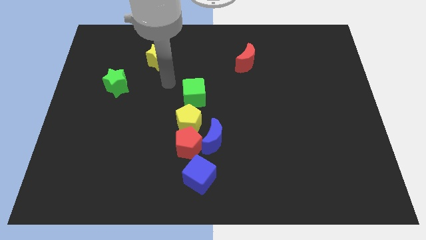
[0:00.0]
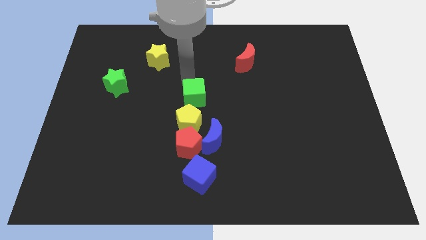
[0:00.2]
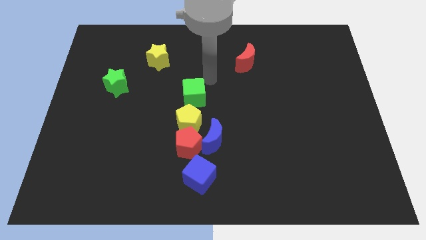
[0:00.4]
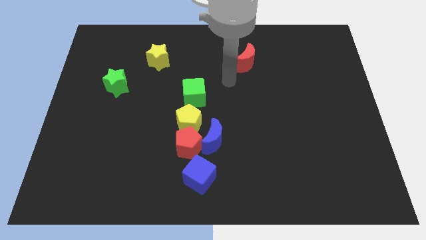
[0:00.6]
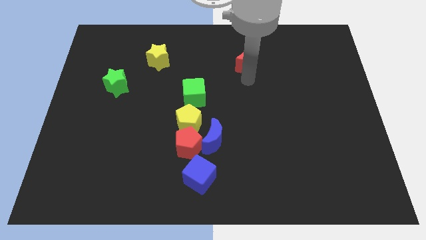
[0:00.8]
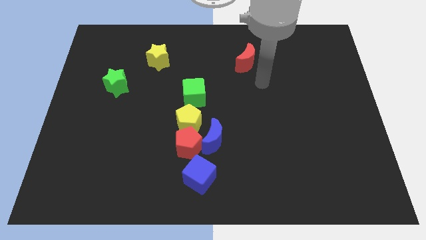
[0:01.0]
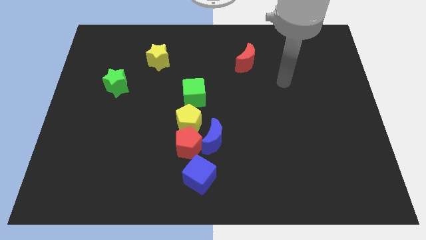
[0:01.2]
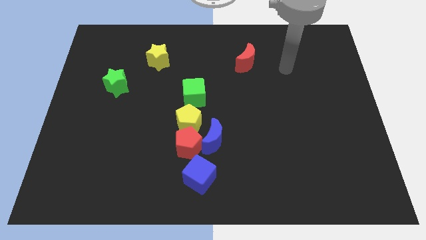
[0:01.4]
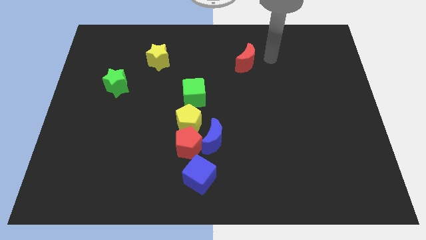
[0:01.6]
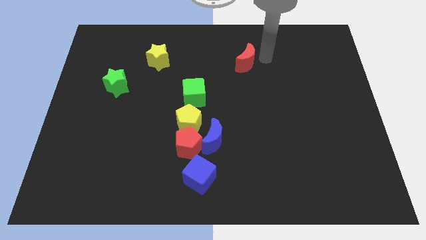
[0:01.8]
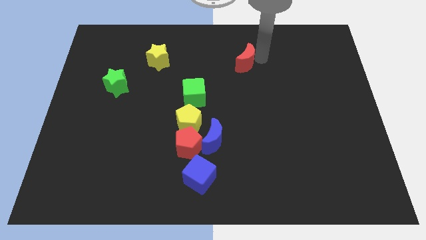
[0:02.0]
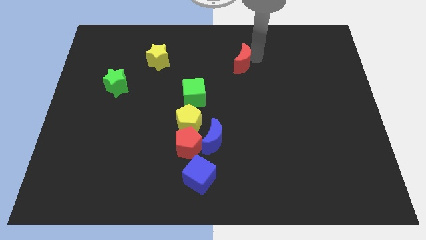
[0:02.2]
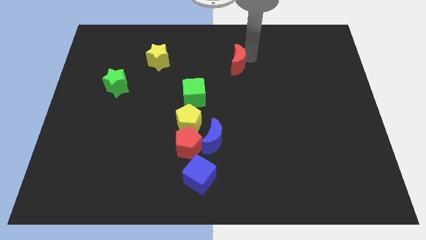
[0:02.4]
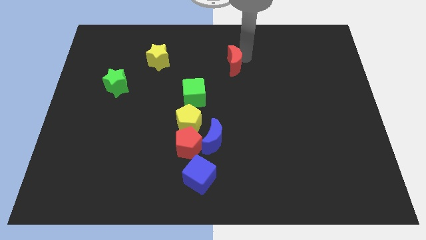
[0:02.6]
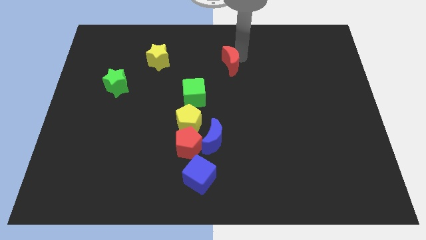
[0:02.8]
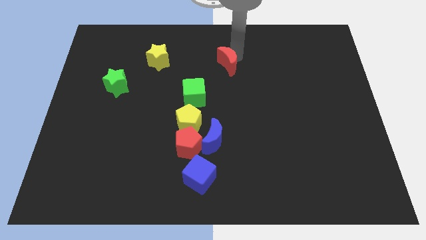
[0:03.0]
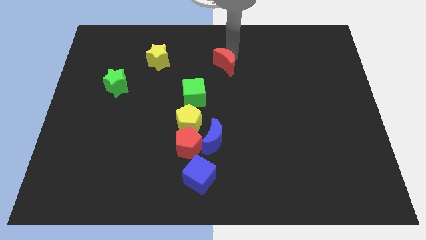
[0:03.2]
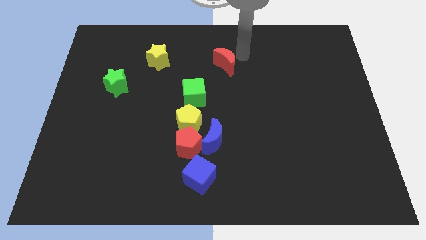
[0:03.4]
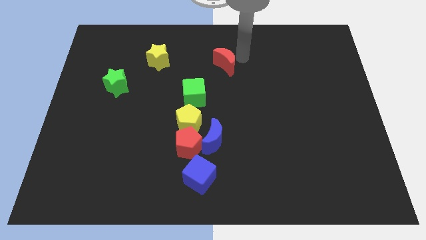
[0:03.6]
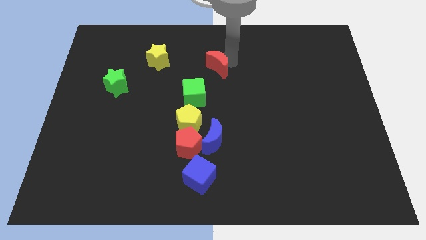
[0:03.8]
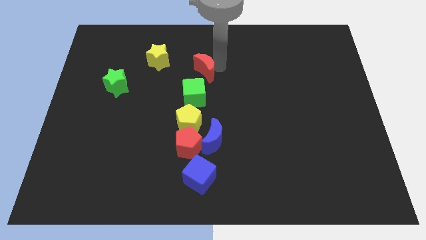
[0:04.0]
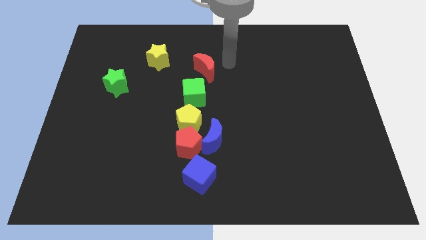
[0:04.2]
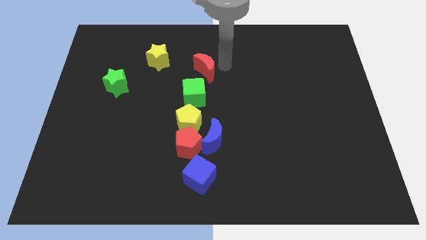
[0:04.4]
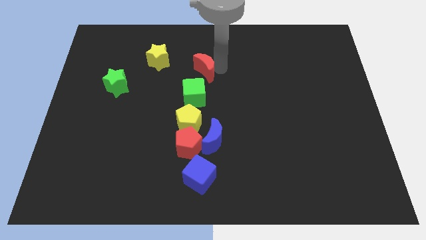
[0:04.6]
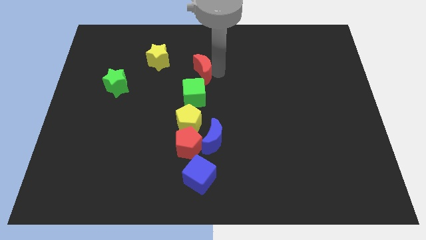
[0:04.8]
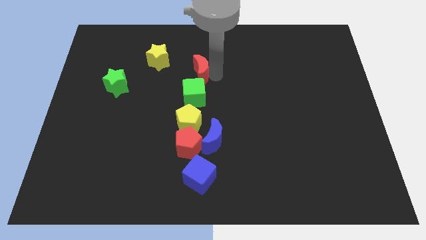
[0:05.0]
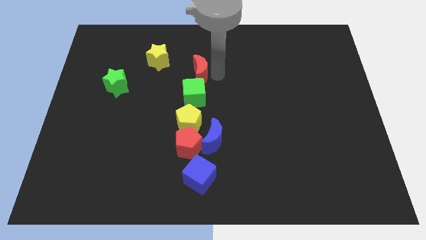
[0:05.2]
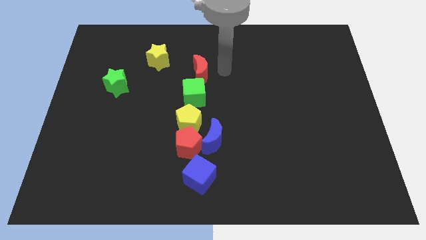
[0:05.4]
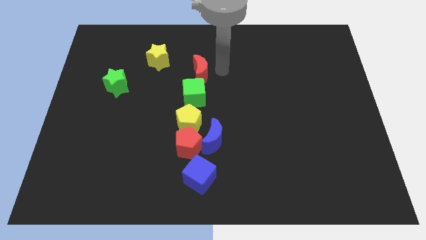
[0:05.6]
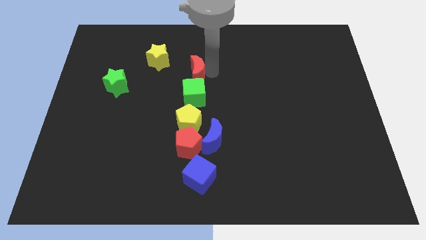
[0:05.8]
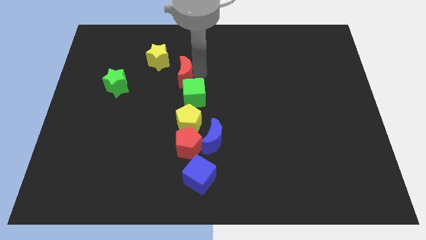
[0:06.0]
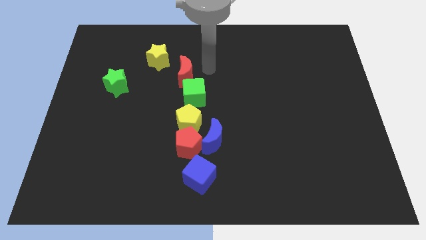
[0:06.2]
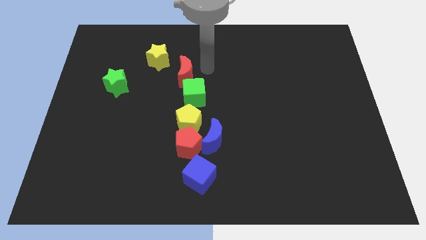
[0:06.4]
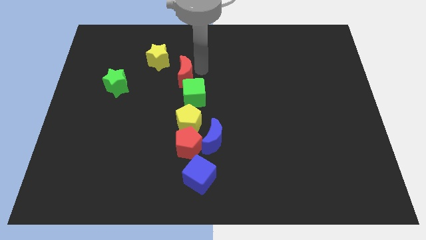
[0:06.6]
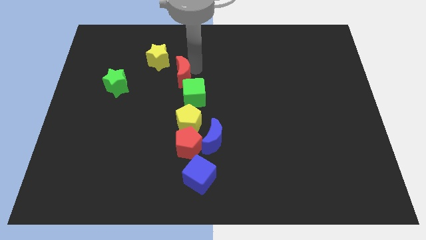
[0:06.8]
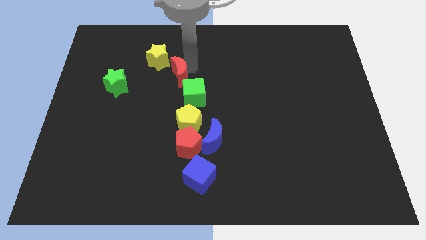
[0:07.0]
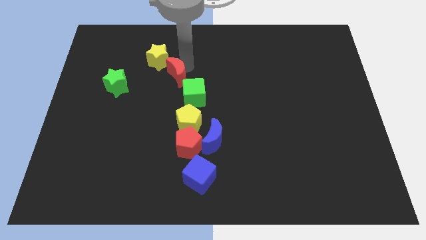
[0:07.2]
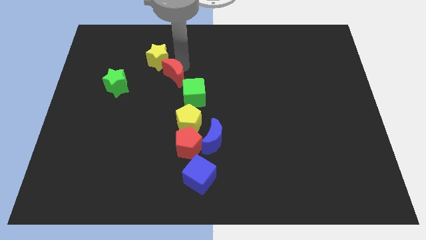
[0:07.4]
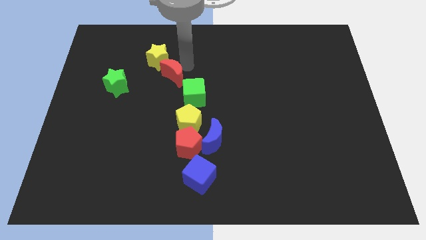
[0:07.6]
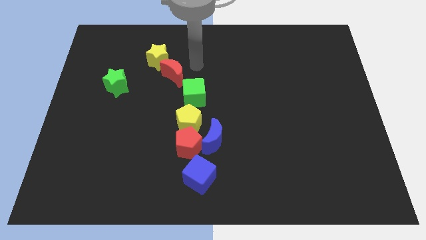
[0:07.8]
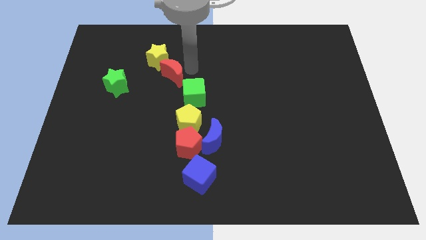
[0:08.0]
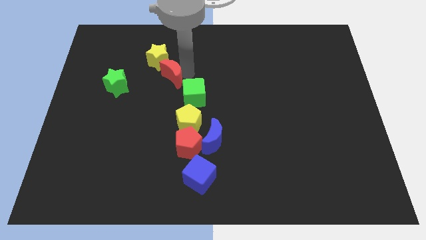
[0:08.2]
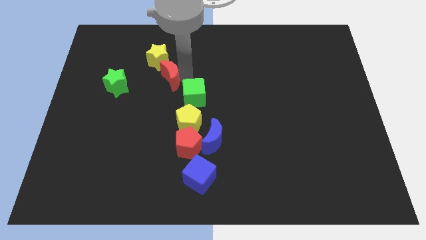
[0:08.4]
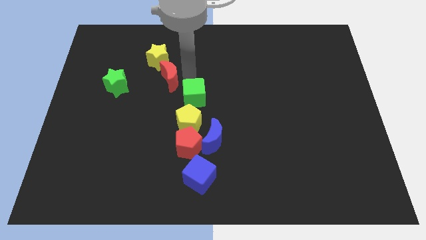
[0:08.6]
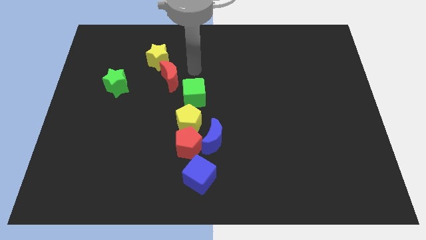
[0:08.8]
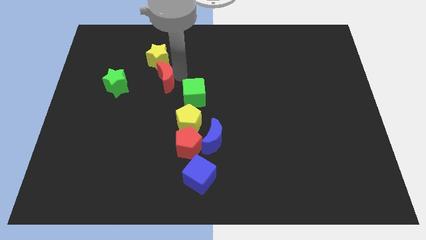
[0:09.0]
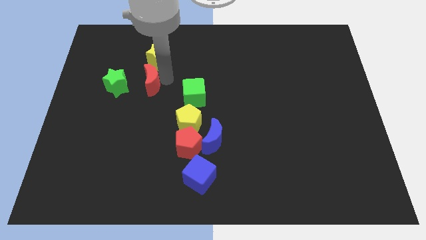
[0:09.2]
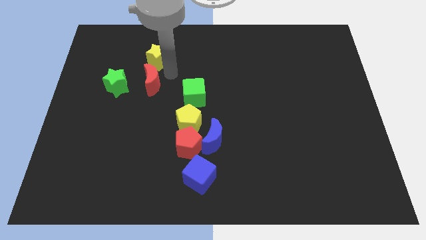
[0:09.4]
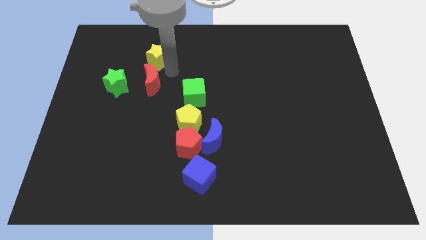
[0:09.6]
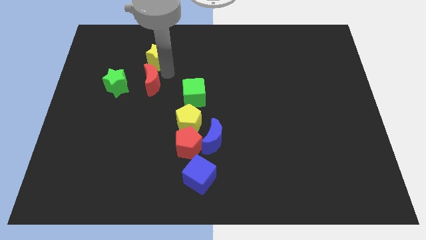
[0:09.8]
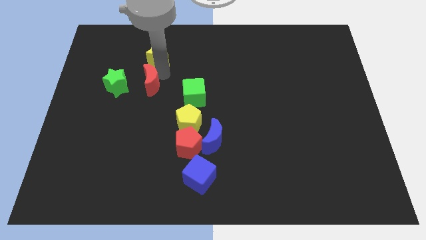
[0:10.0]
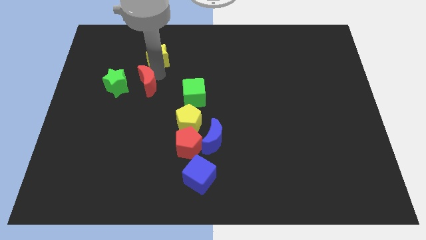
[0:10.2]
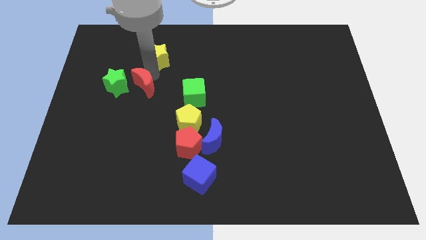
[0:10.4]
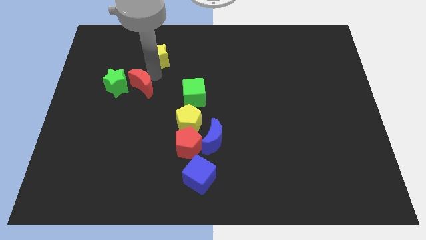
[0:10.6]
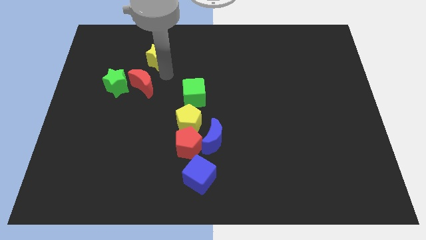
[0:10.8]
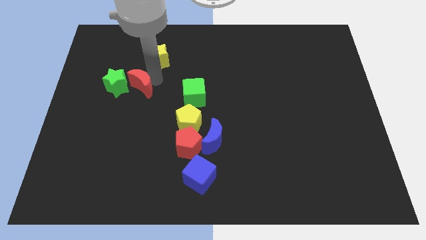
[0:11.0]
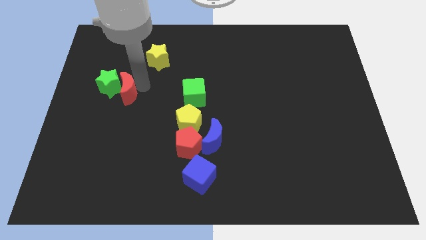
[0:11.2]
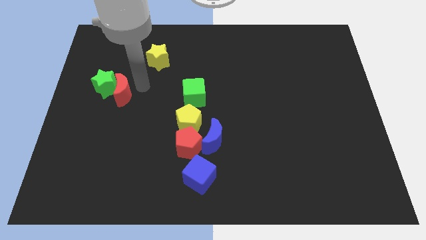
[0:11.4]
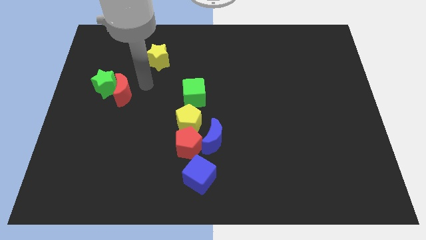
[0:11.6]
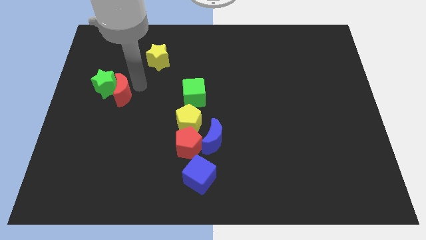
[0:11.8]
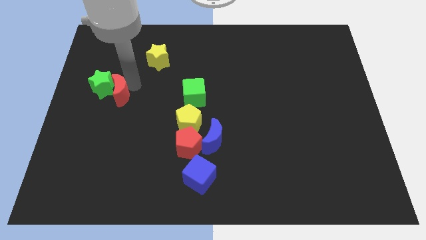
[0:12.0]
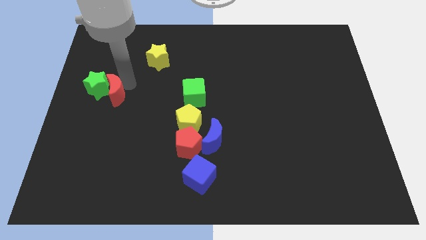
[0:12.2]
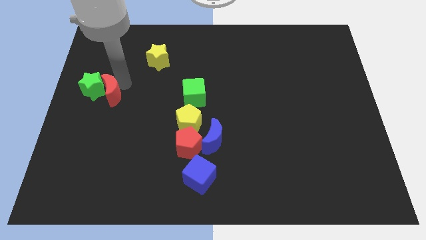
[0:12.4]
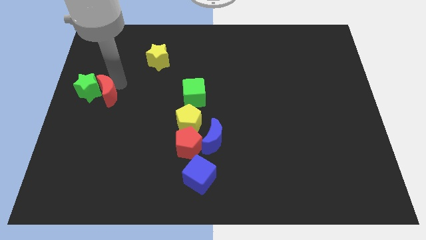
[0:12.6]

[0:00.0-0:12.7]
slide the red moon to the center left
